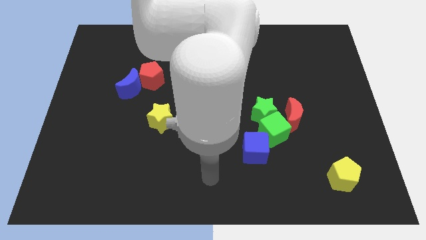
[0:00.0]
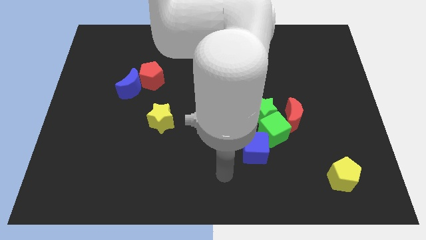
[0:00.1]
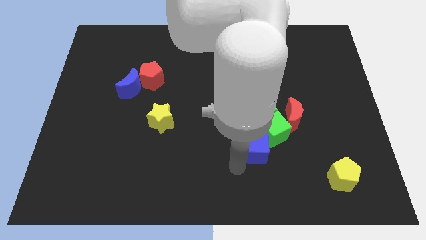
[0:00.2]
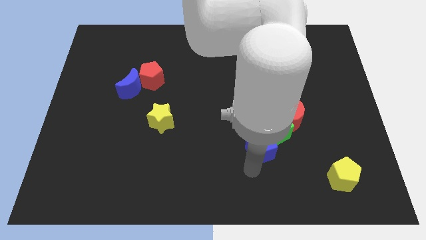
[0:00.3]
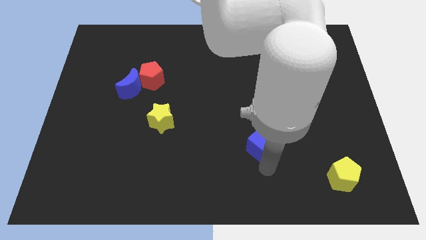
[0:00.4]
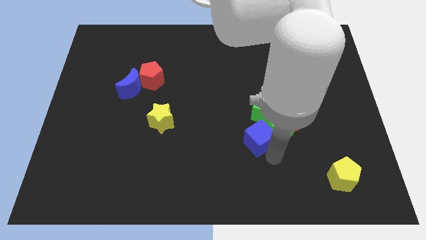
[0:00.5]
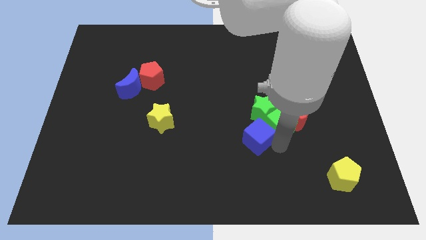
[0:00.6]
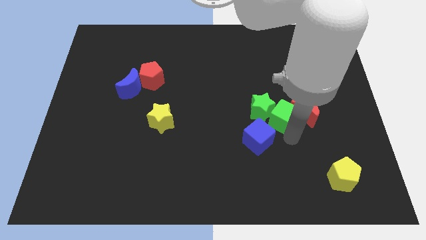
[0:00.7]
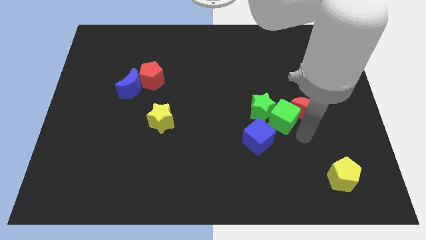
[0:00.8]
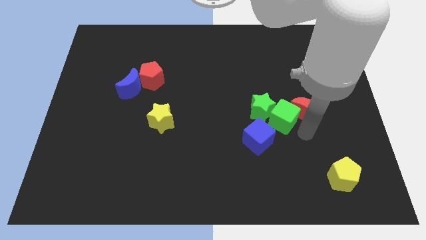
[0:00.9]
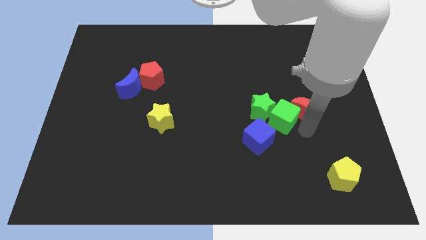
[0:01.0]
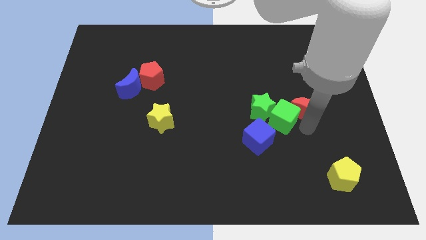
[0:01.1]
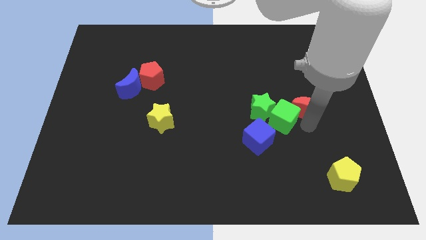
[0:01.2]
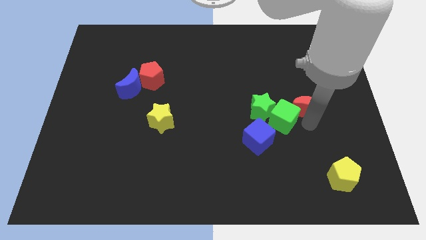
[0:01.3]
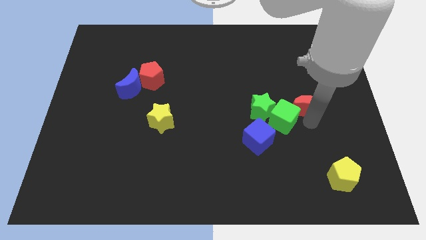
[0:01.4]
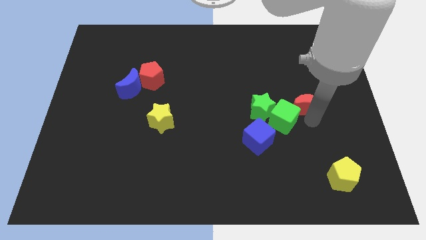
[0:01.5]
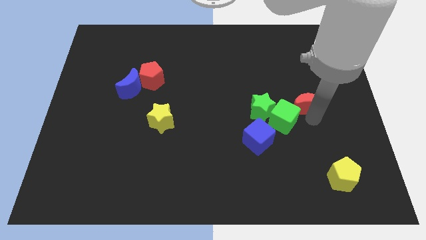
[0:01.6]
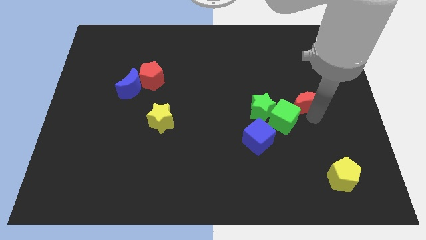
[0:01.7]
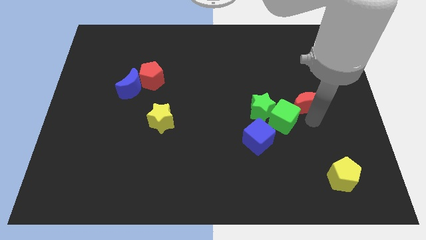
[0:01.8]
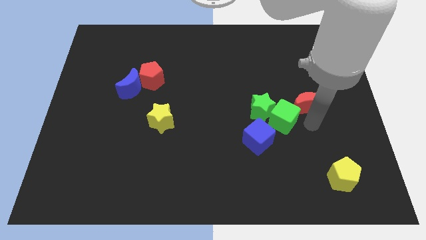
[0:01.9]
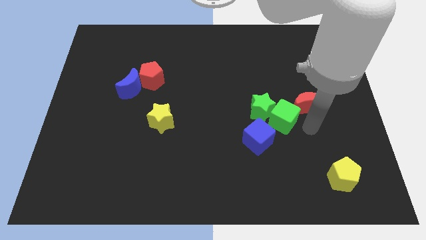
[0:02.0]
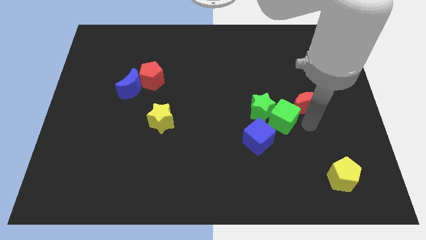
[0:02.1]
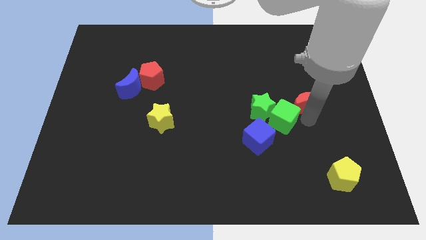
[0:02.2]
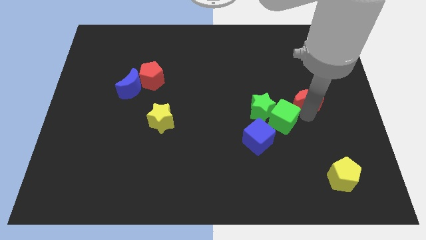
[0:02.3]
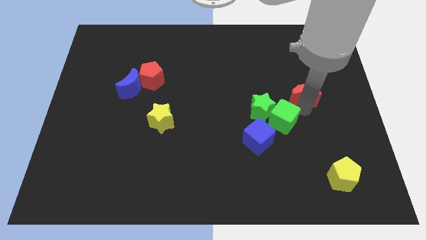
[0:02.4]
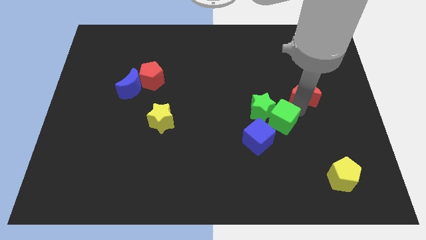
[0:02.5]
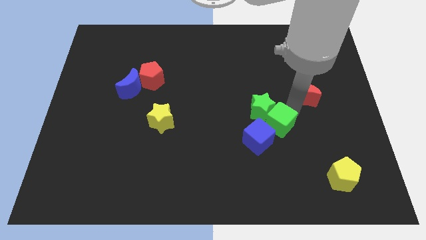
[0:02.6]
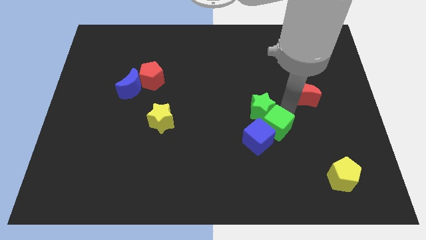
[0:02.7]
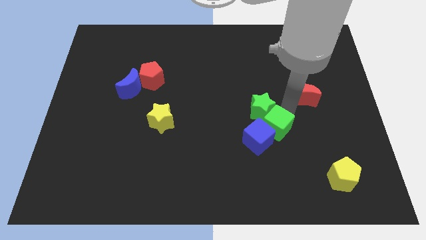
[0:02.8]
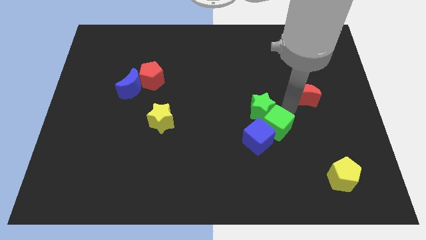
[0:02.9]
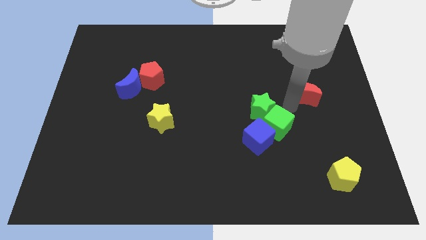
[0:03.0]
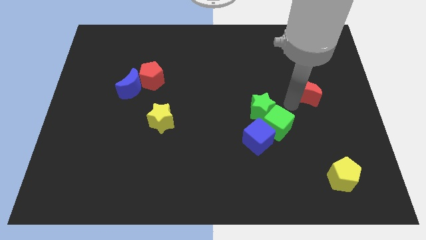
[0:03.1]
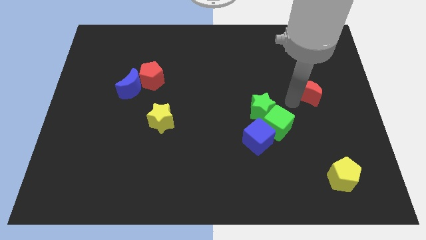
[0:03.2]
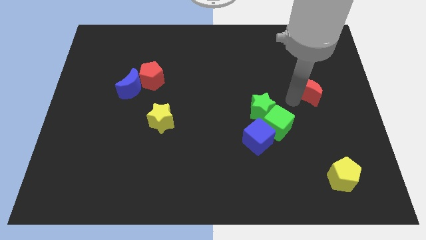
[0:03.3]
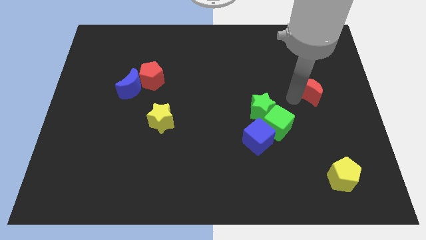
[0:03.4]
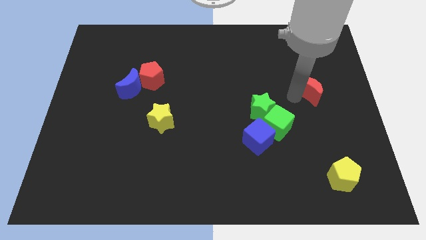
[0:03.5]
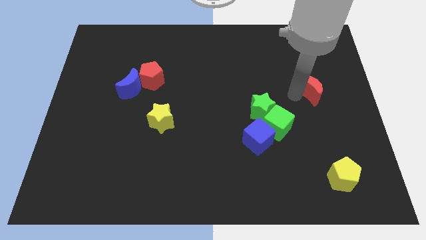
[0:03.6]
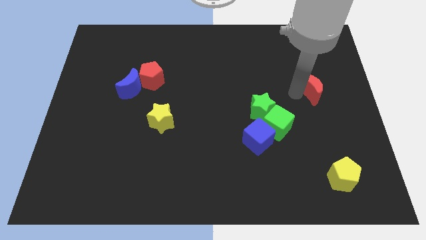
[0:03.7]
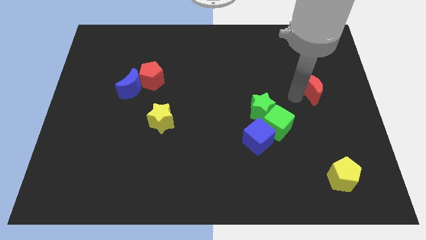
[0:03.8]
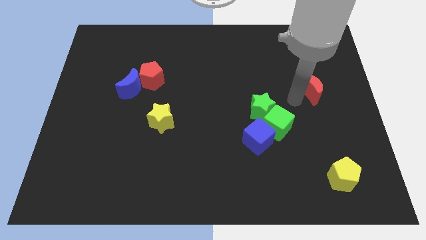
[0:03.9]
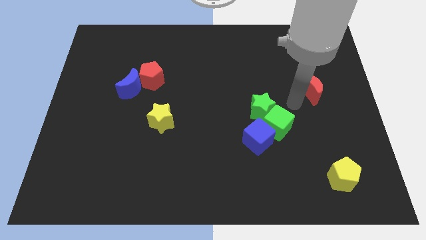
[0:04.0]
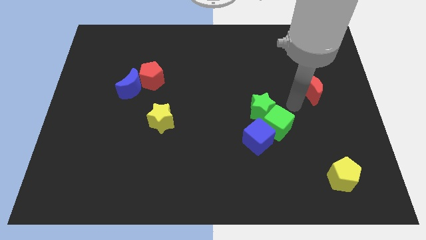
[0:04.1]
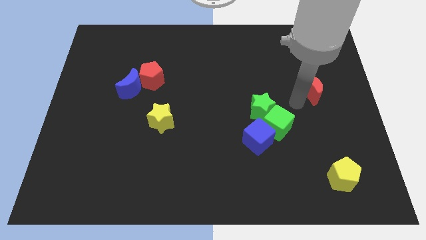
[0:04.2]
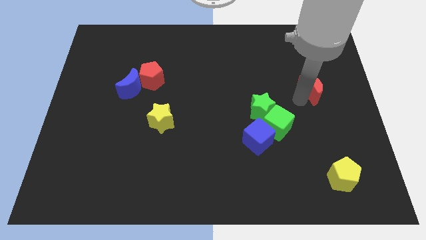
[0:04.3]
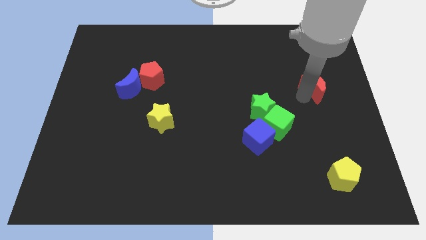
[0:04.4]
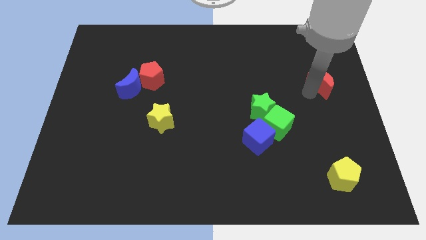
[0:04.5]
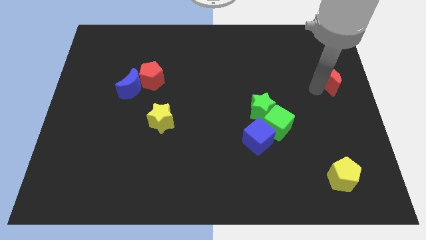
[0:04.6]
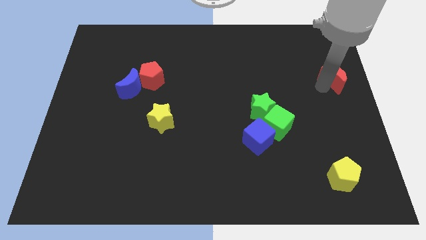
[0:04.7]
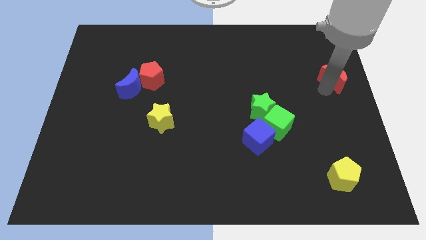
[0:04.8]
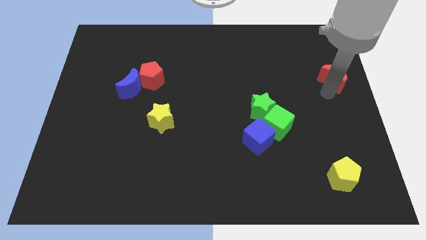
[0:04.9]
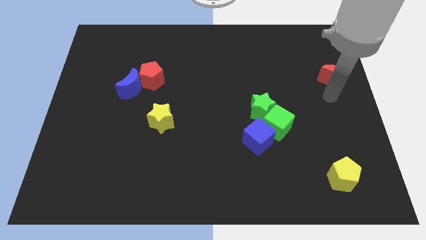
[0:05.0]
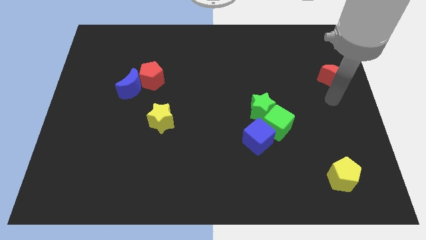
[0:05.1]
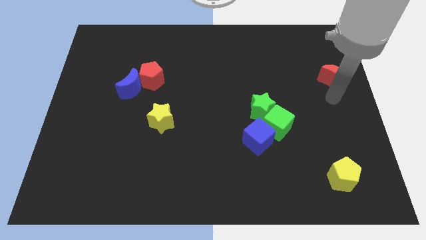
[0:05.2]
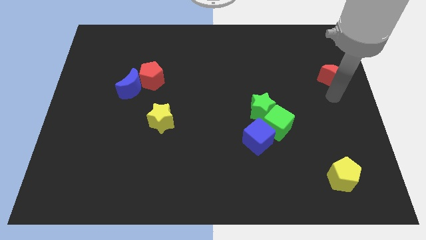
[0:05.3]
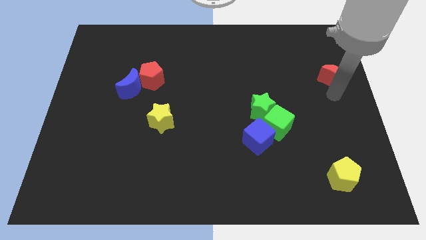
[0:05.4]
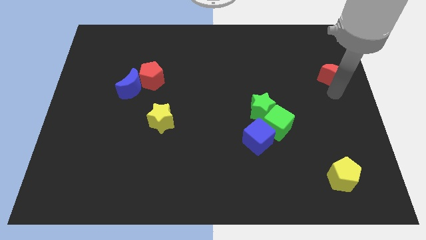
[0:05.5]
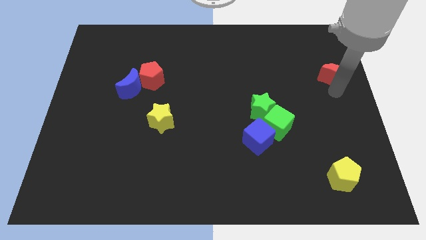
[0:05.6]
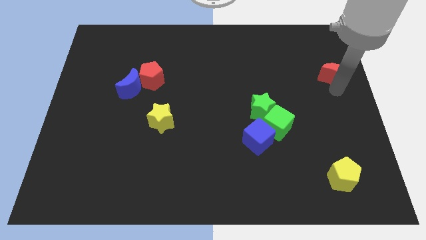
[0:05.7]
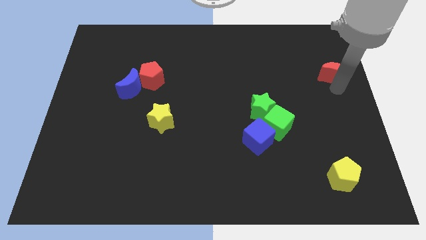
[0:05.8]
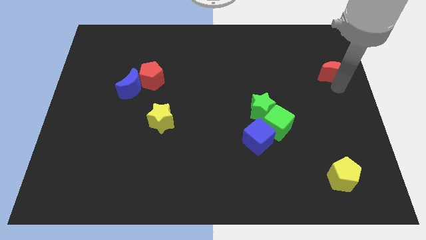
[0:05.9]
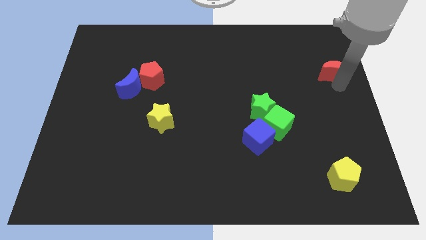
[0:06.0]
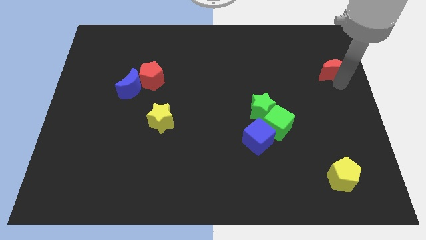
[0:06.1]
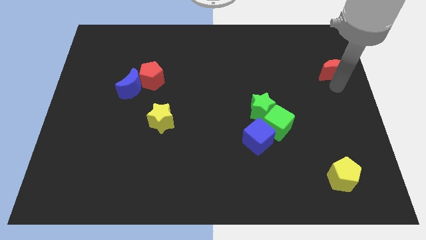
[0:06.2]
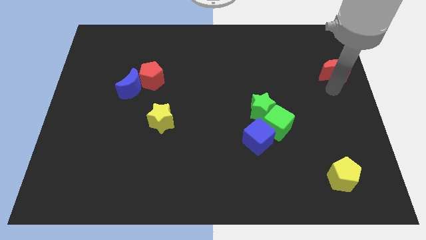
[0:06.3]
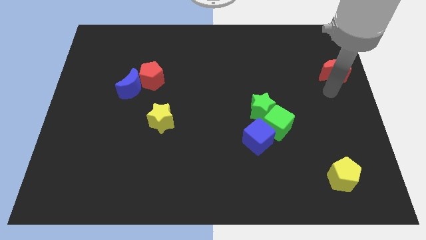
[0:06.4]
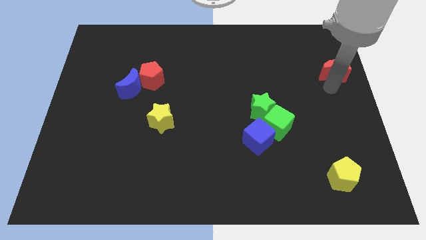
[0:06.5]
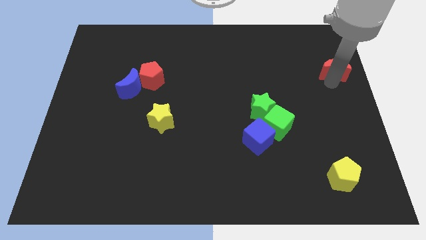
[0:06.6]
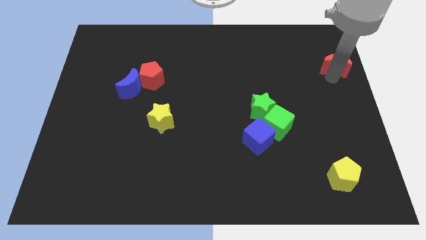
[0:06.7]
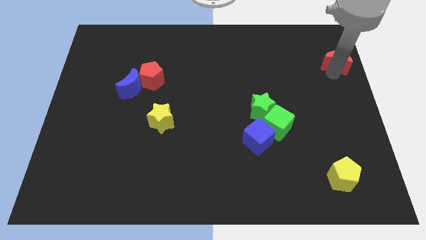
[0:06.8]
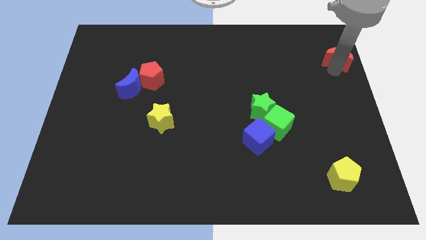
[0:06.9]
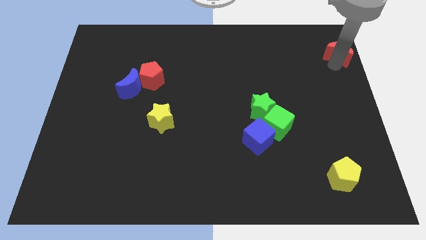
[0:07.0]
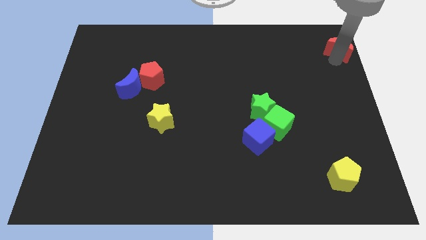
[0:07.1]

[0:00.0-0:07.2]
put the red moon to the upper right corner
